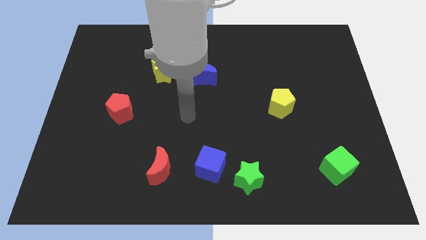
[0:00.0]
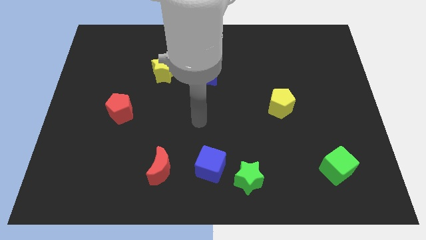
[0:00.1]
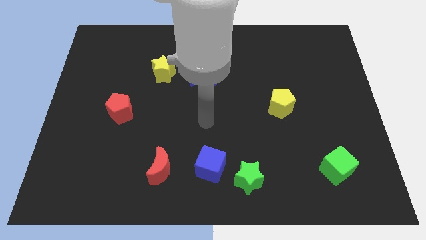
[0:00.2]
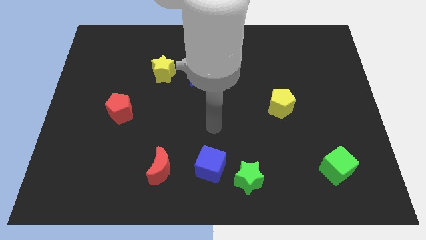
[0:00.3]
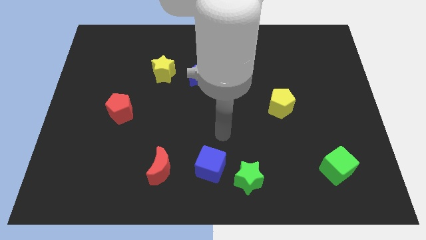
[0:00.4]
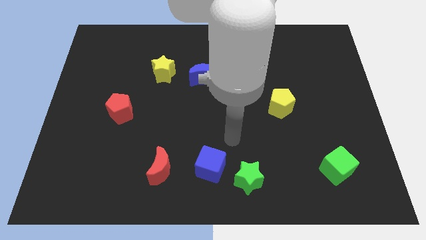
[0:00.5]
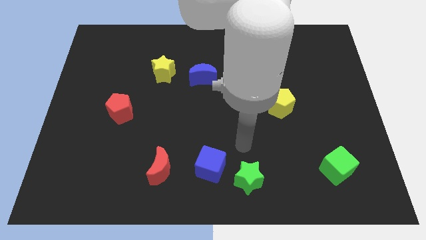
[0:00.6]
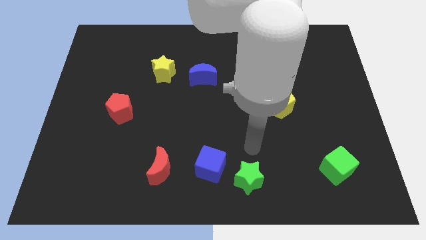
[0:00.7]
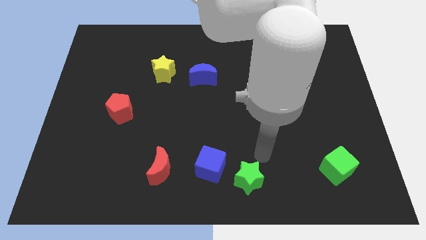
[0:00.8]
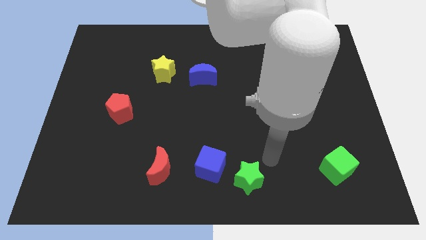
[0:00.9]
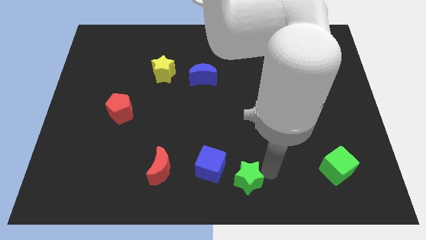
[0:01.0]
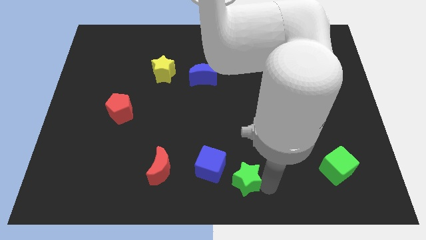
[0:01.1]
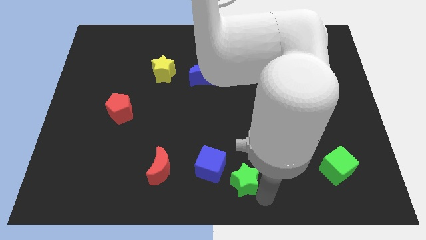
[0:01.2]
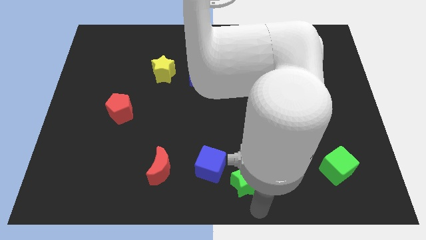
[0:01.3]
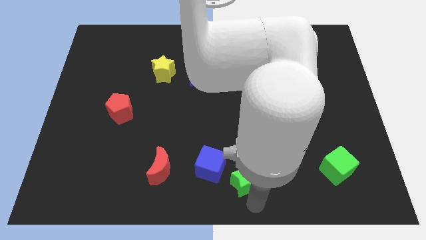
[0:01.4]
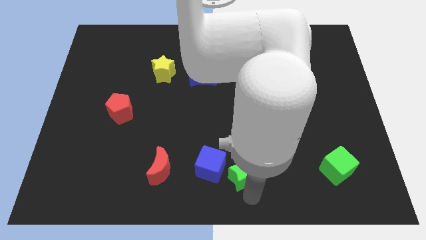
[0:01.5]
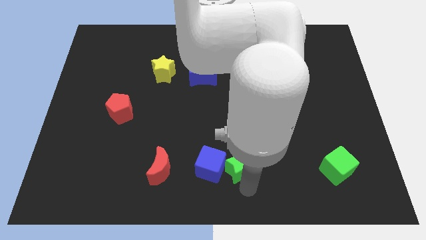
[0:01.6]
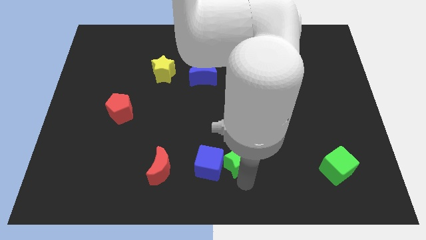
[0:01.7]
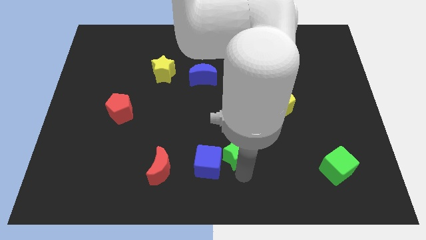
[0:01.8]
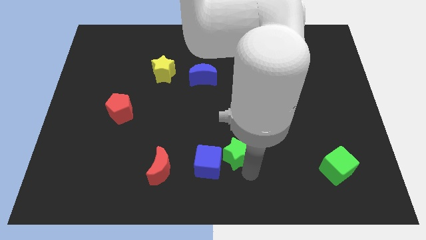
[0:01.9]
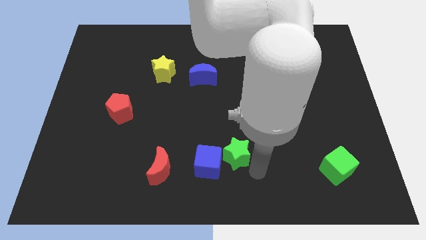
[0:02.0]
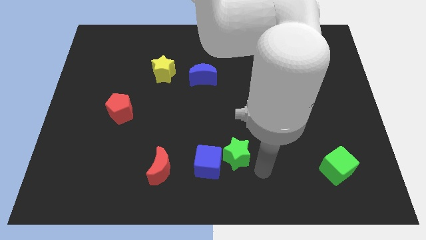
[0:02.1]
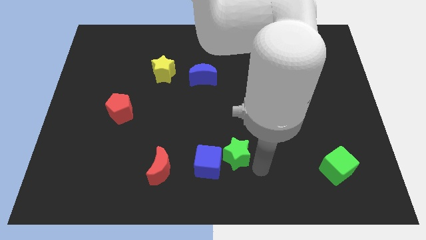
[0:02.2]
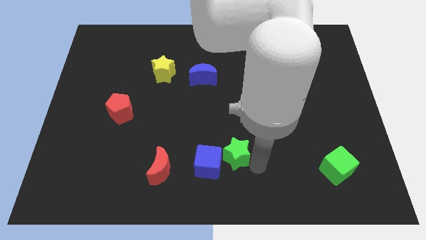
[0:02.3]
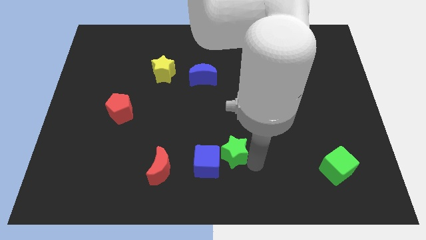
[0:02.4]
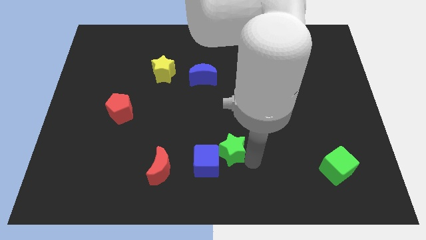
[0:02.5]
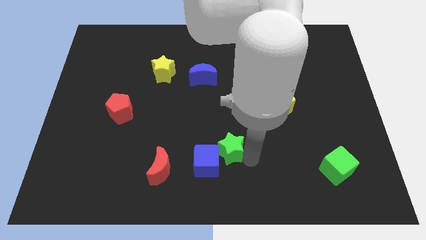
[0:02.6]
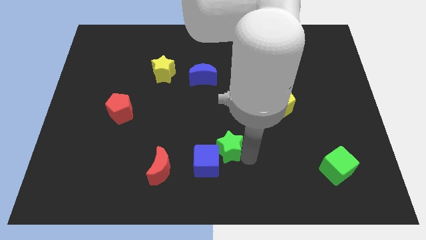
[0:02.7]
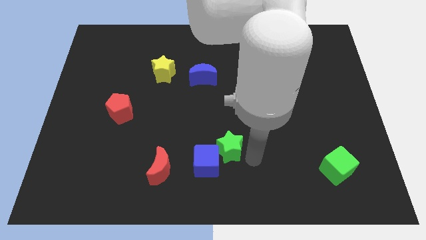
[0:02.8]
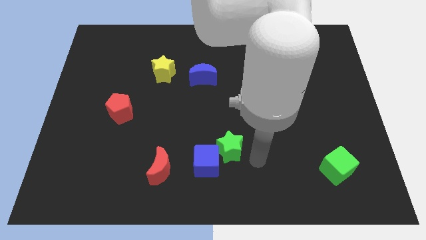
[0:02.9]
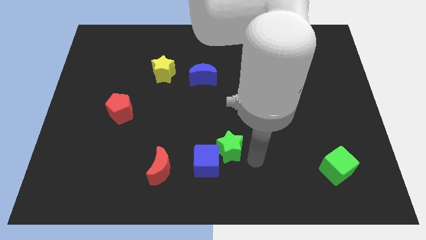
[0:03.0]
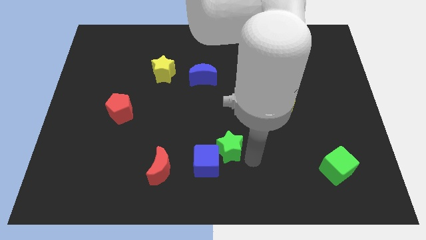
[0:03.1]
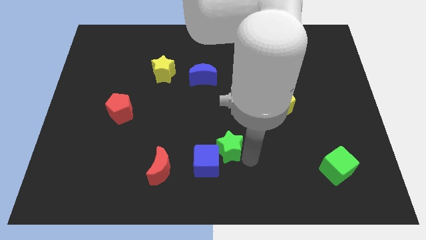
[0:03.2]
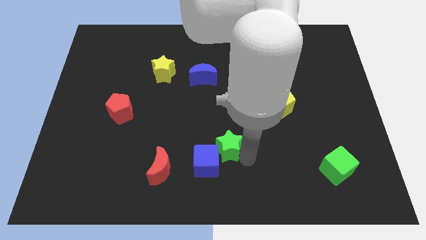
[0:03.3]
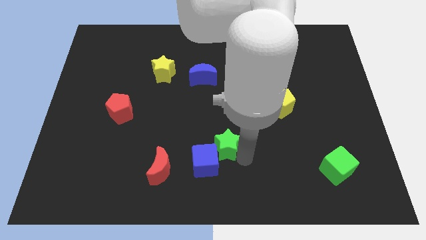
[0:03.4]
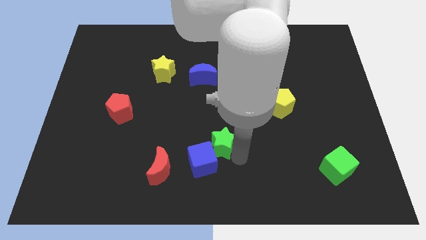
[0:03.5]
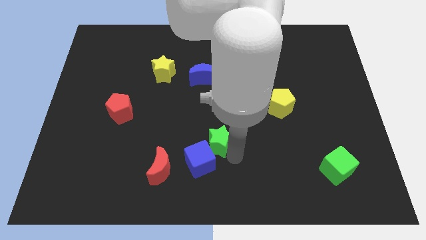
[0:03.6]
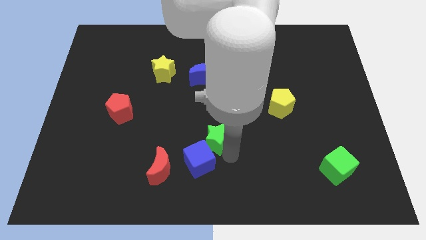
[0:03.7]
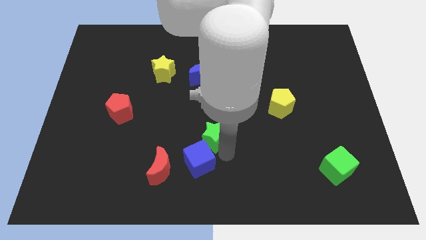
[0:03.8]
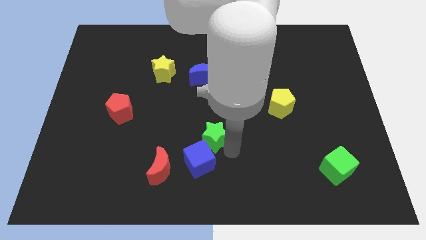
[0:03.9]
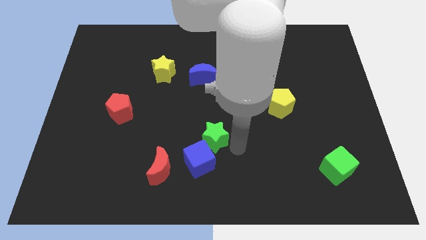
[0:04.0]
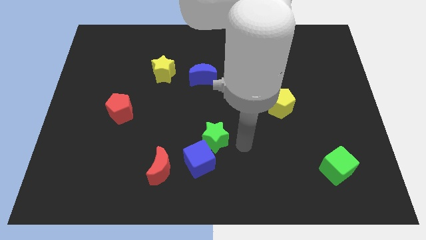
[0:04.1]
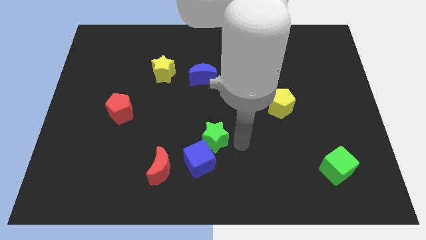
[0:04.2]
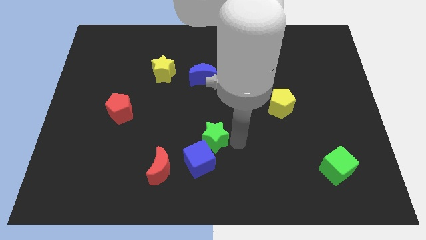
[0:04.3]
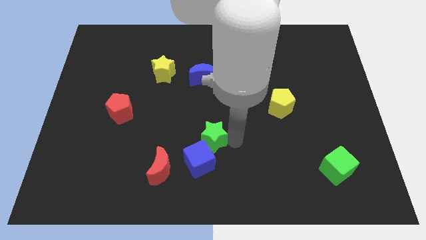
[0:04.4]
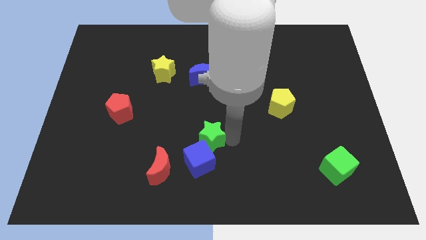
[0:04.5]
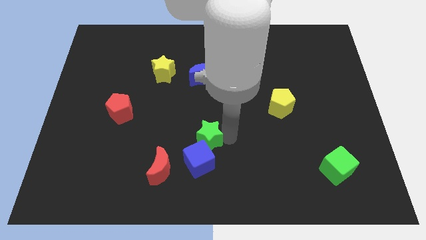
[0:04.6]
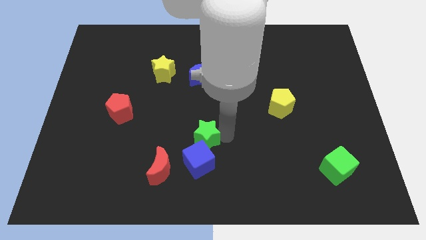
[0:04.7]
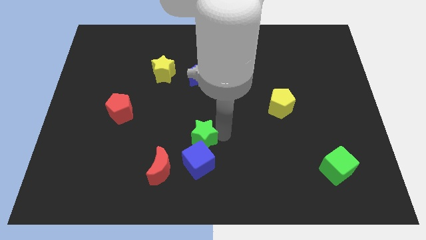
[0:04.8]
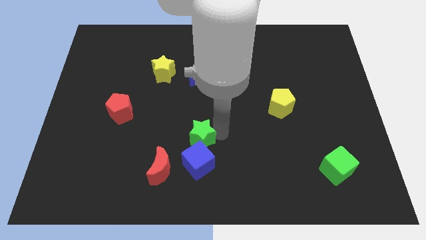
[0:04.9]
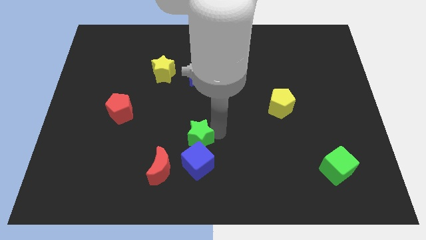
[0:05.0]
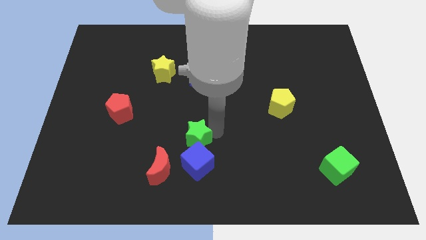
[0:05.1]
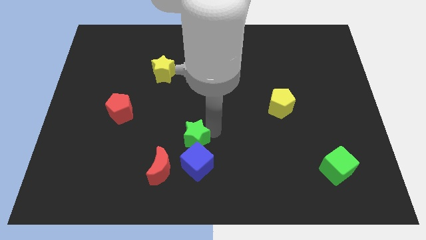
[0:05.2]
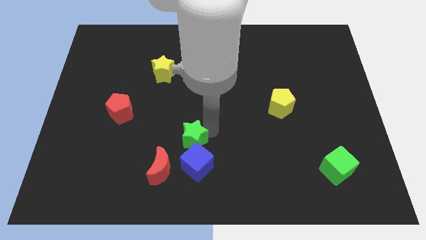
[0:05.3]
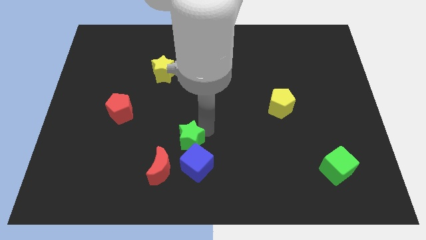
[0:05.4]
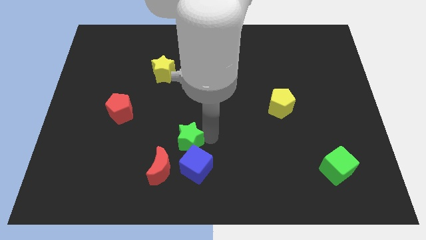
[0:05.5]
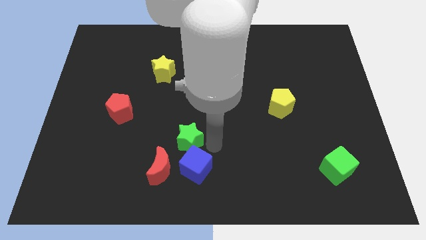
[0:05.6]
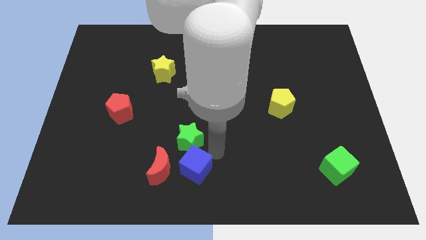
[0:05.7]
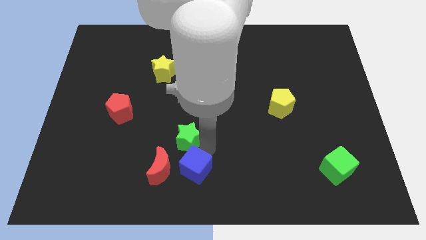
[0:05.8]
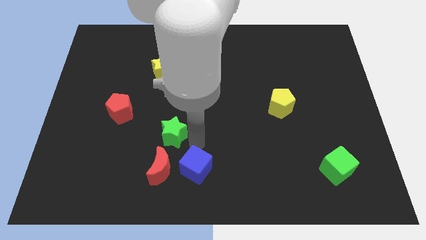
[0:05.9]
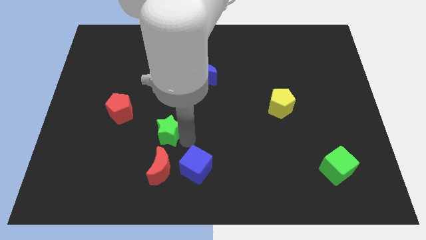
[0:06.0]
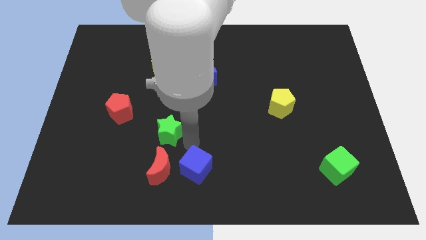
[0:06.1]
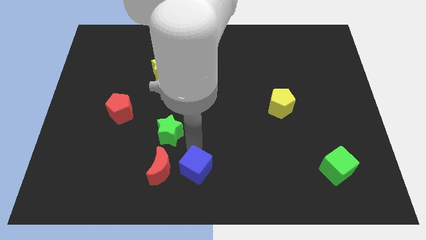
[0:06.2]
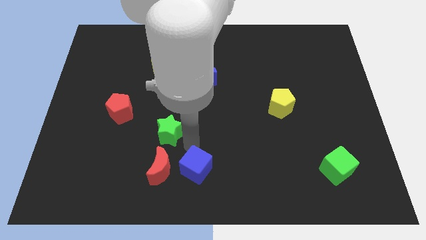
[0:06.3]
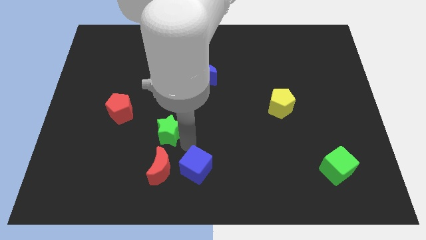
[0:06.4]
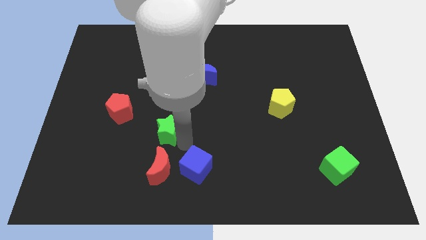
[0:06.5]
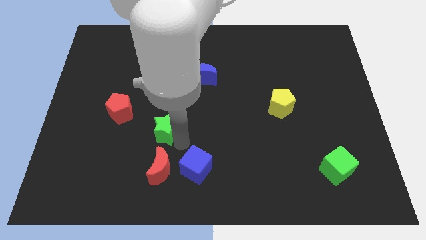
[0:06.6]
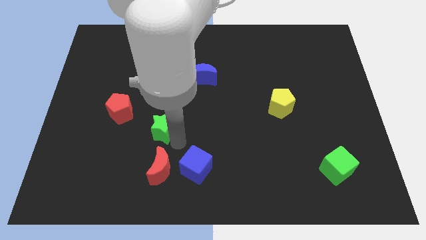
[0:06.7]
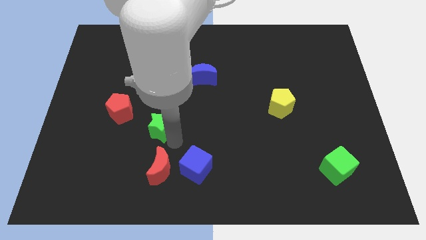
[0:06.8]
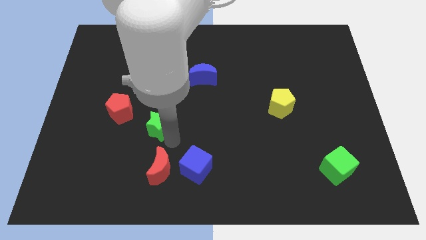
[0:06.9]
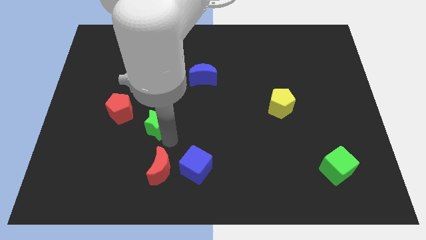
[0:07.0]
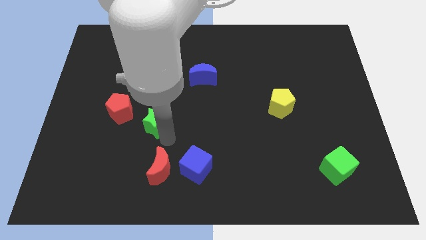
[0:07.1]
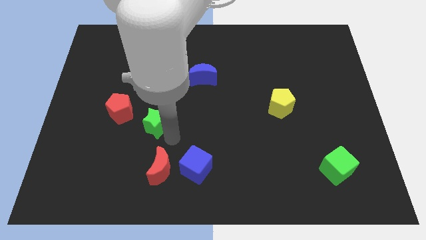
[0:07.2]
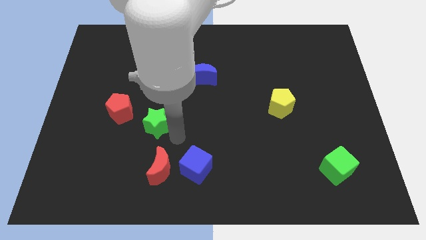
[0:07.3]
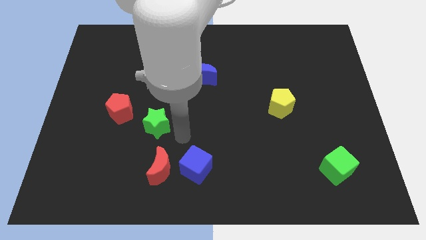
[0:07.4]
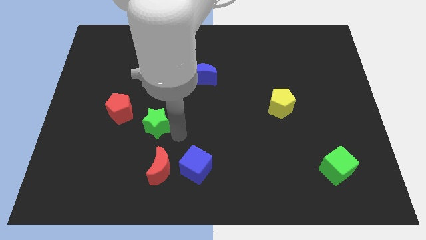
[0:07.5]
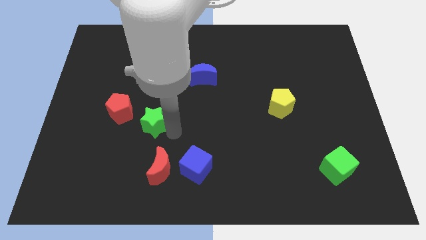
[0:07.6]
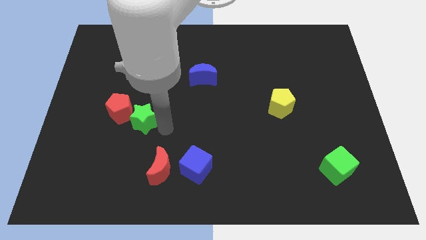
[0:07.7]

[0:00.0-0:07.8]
move the green star towards the red pentagon

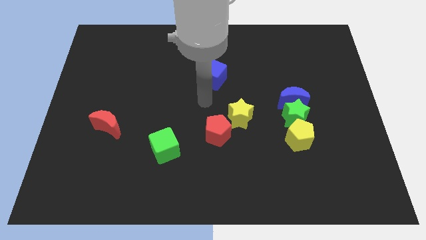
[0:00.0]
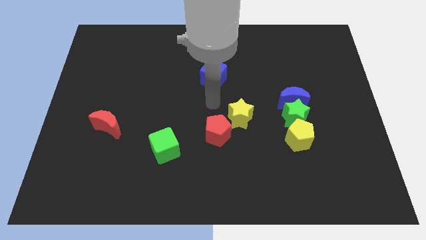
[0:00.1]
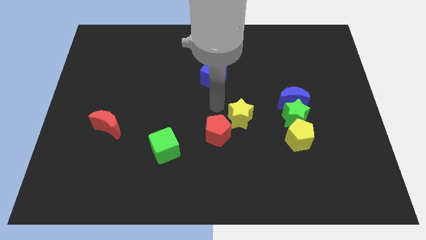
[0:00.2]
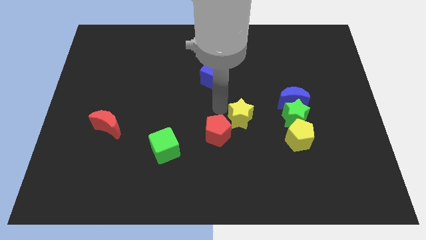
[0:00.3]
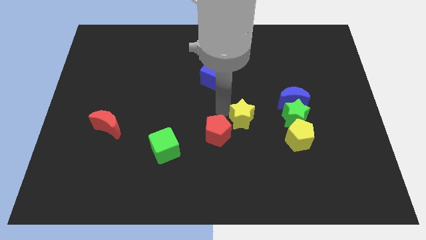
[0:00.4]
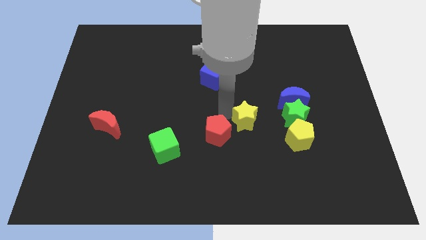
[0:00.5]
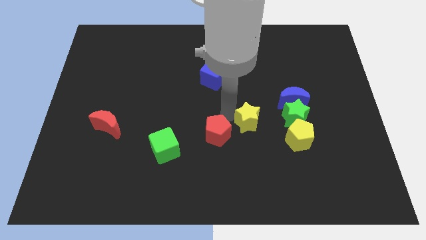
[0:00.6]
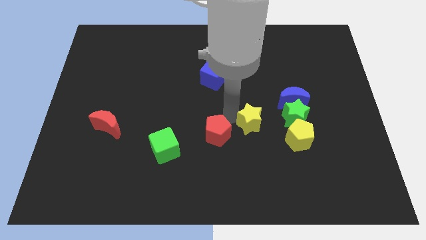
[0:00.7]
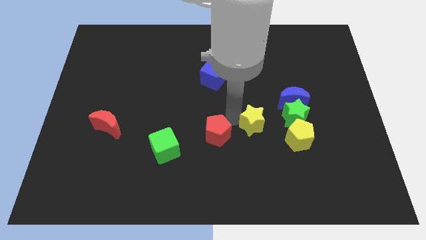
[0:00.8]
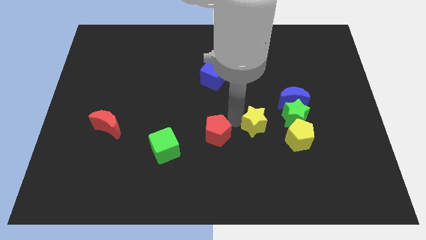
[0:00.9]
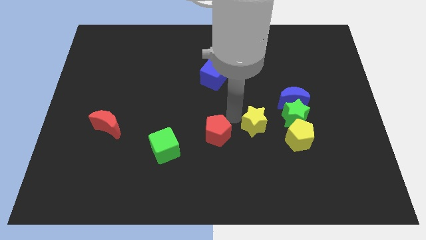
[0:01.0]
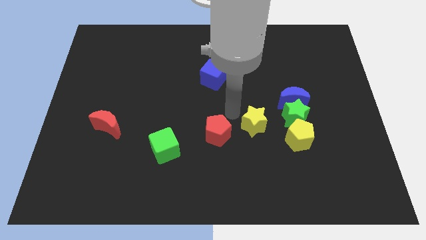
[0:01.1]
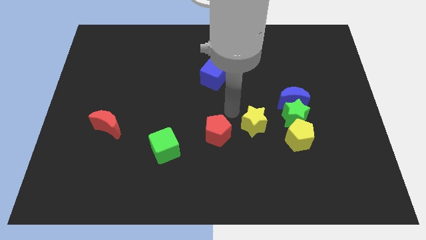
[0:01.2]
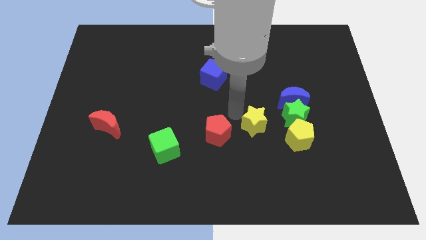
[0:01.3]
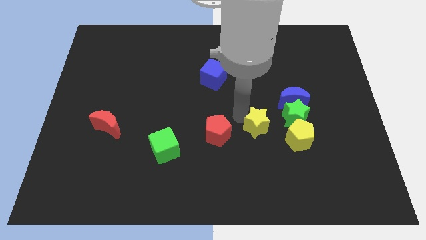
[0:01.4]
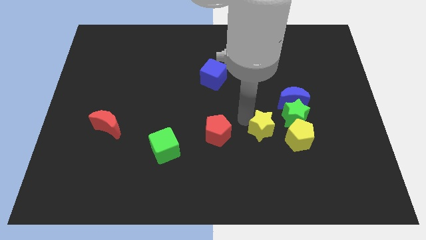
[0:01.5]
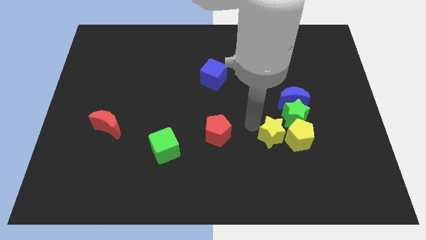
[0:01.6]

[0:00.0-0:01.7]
slide the yellow star next to the yellow pentagon
